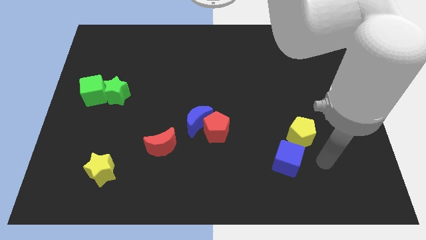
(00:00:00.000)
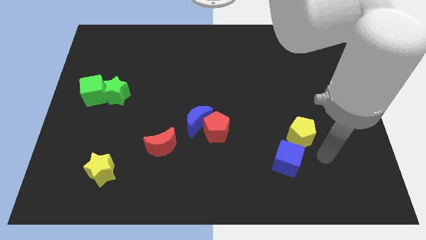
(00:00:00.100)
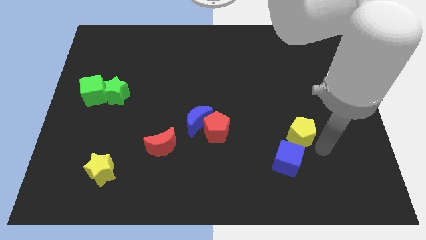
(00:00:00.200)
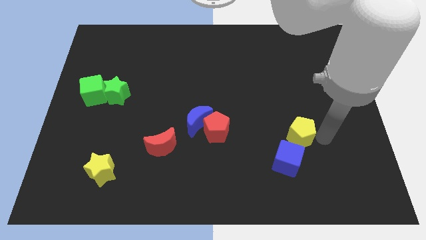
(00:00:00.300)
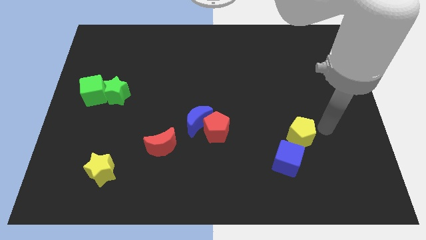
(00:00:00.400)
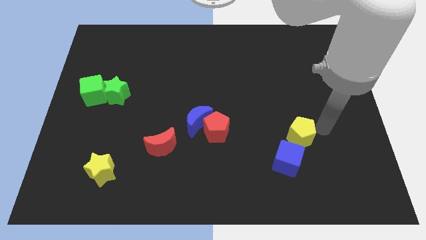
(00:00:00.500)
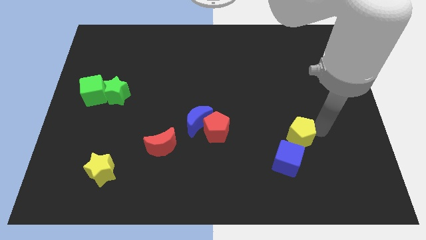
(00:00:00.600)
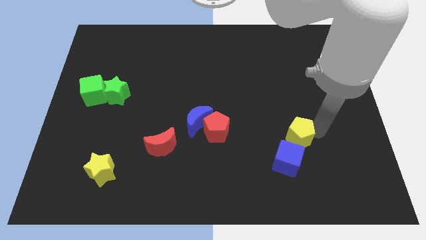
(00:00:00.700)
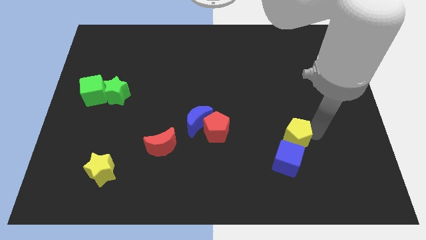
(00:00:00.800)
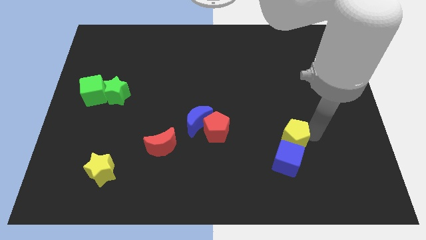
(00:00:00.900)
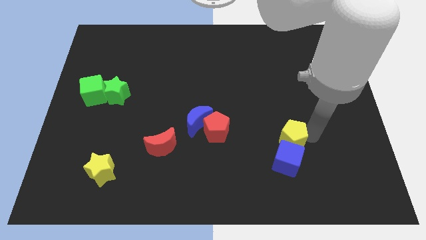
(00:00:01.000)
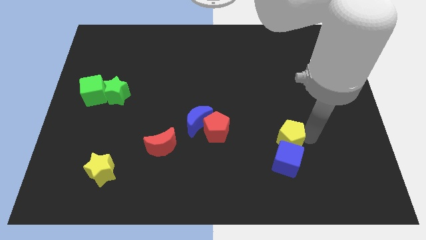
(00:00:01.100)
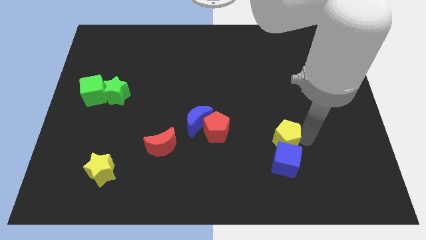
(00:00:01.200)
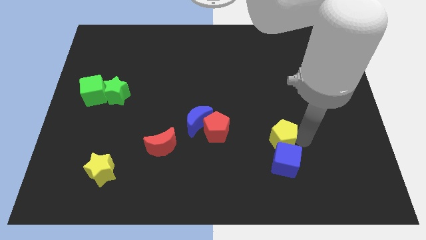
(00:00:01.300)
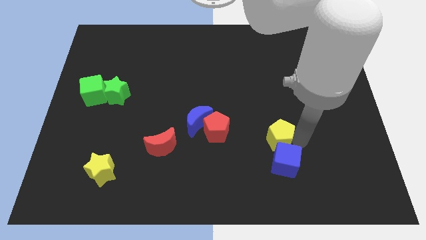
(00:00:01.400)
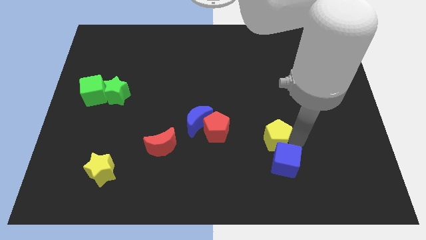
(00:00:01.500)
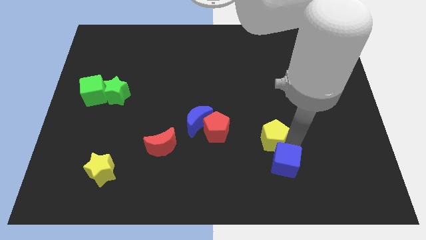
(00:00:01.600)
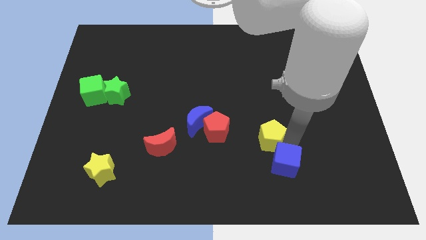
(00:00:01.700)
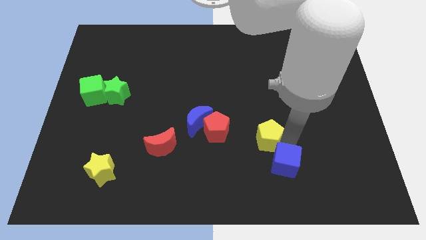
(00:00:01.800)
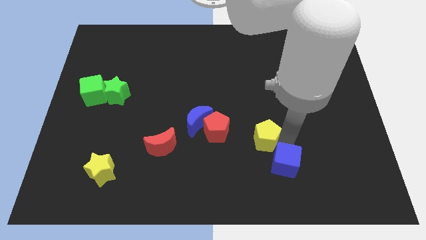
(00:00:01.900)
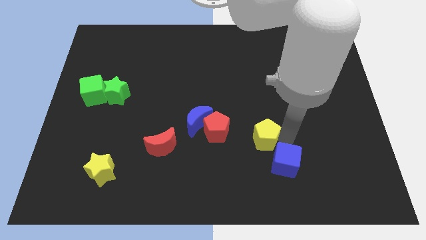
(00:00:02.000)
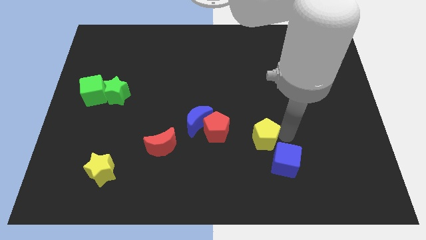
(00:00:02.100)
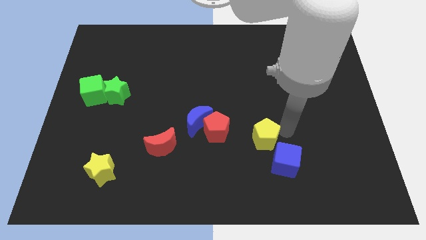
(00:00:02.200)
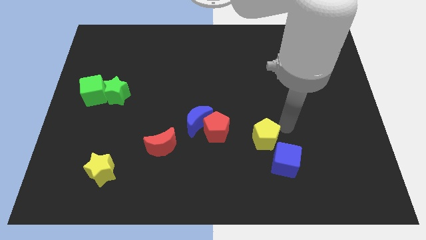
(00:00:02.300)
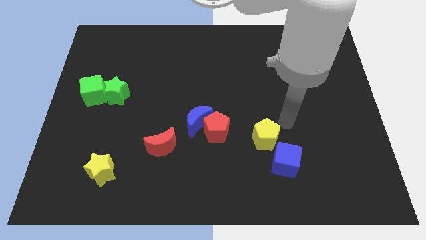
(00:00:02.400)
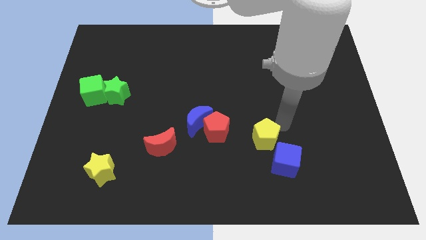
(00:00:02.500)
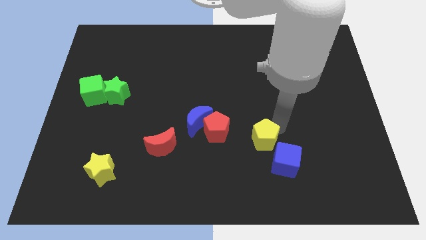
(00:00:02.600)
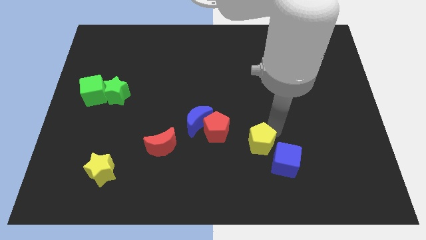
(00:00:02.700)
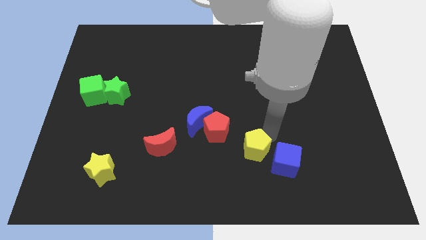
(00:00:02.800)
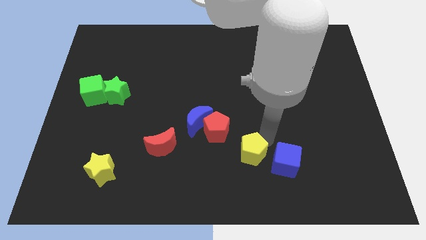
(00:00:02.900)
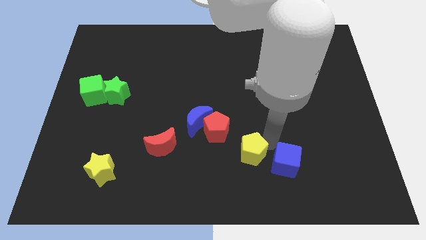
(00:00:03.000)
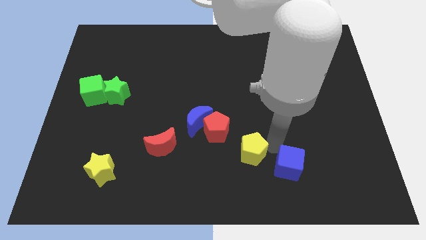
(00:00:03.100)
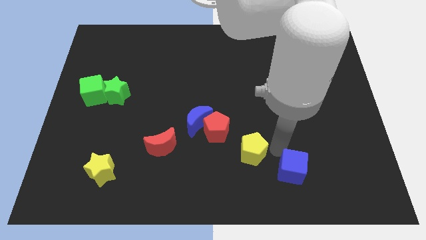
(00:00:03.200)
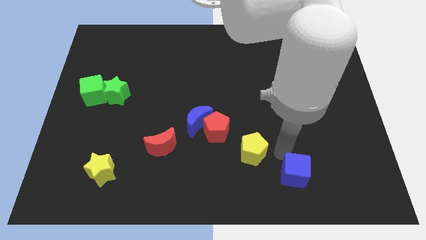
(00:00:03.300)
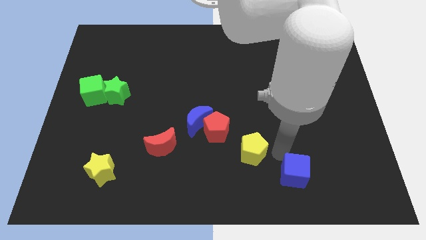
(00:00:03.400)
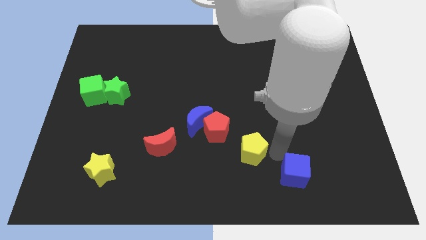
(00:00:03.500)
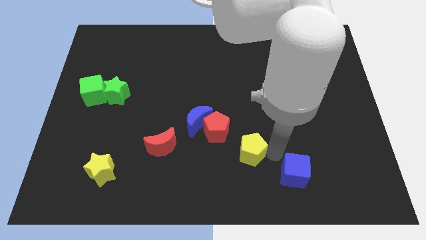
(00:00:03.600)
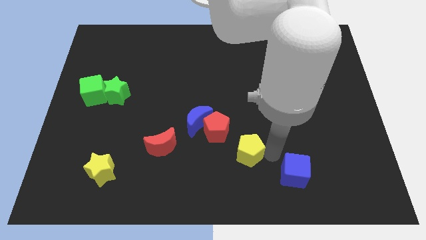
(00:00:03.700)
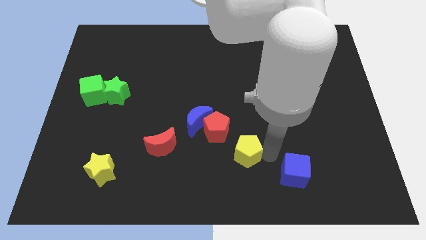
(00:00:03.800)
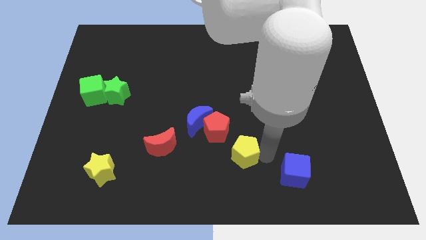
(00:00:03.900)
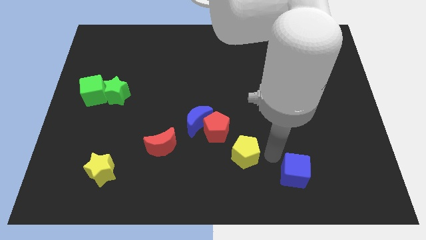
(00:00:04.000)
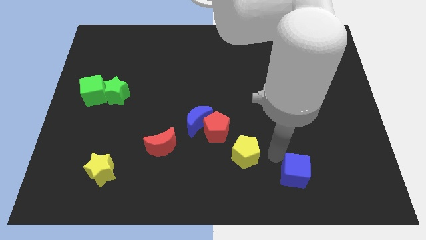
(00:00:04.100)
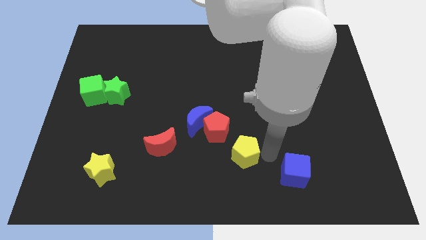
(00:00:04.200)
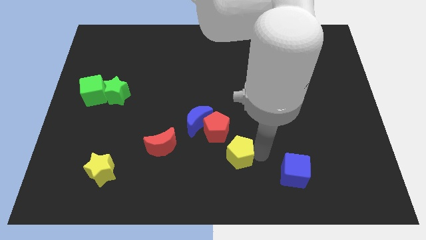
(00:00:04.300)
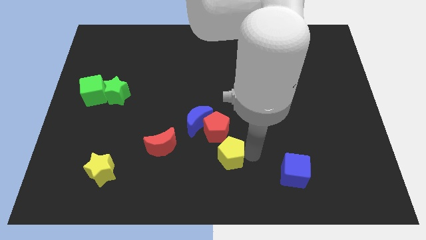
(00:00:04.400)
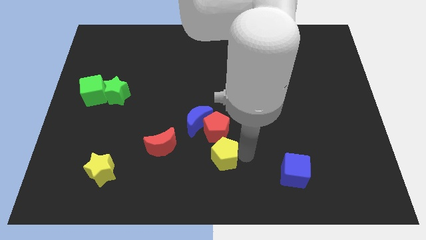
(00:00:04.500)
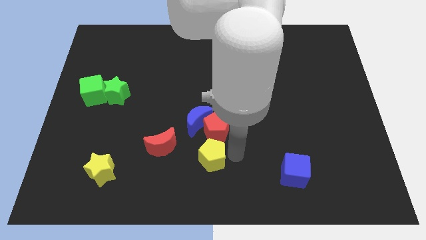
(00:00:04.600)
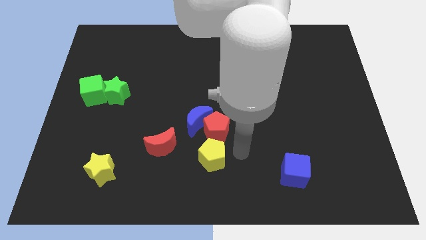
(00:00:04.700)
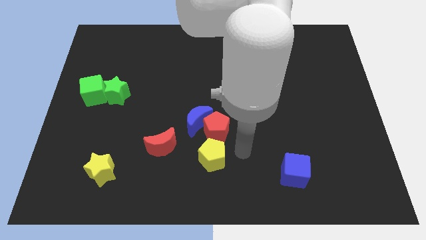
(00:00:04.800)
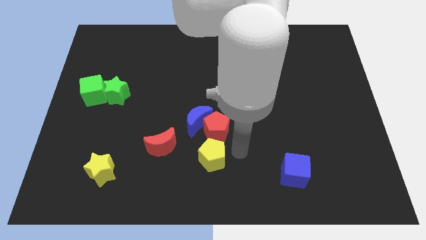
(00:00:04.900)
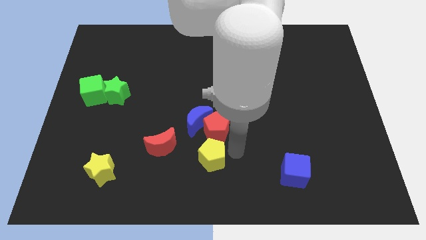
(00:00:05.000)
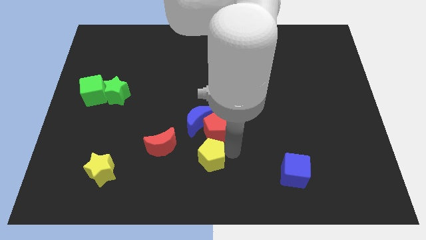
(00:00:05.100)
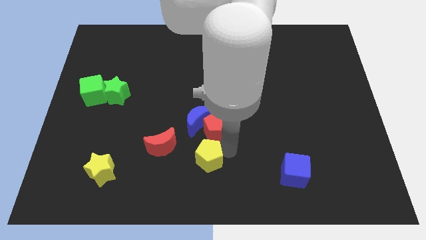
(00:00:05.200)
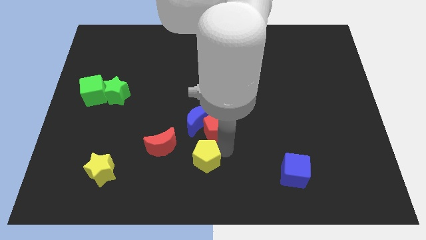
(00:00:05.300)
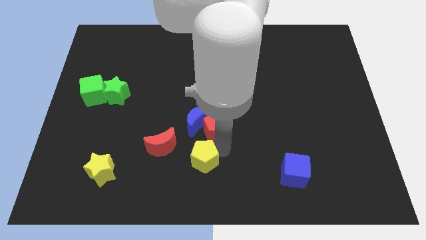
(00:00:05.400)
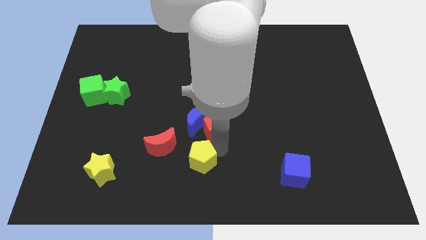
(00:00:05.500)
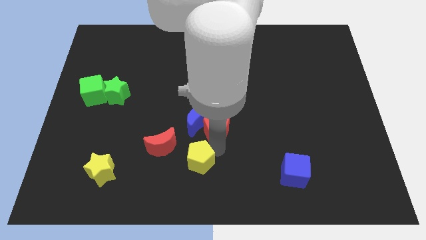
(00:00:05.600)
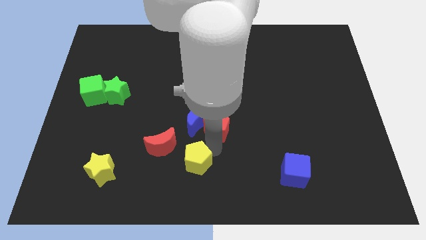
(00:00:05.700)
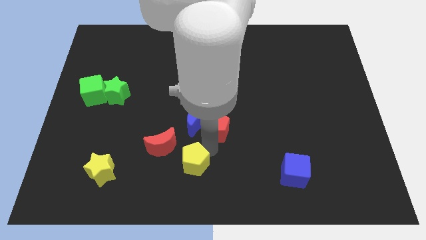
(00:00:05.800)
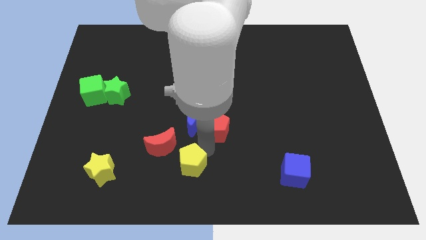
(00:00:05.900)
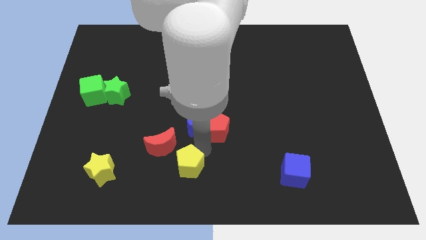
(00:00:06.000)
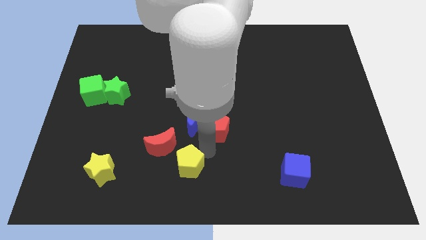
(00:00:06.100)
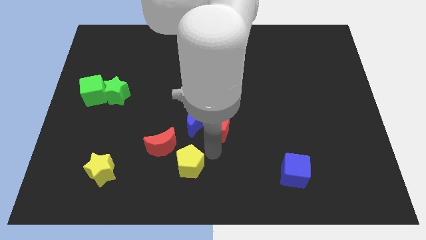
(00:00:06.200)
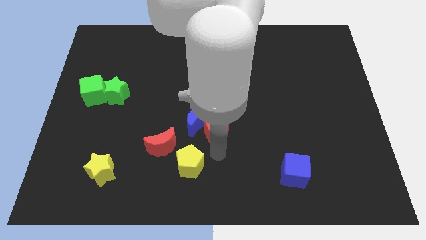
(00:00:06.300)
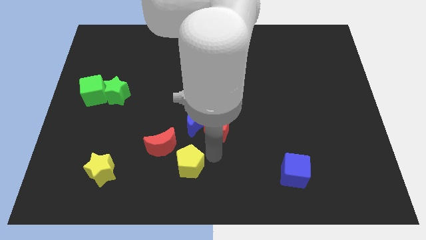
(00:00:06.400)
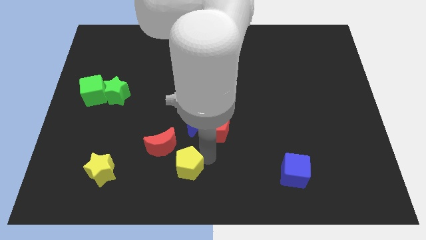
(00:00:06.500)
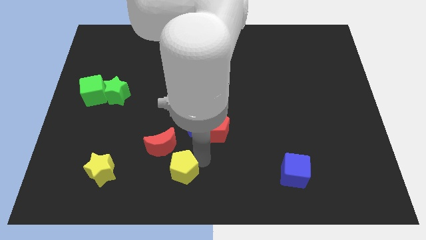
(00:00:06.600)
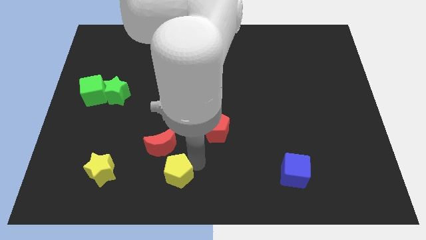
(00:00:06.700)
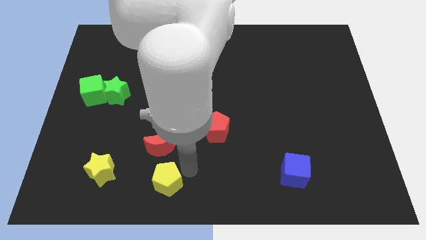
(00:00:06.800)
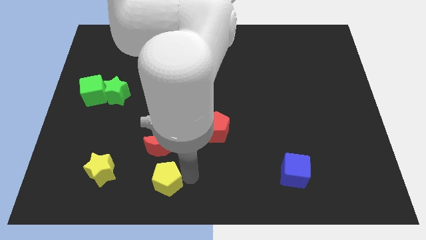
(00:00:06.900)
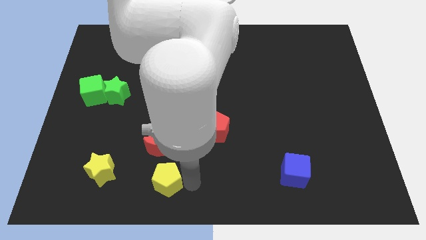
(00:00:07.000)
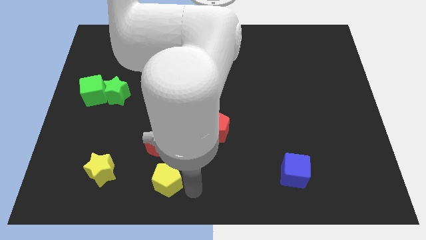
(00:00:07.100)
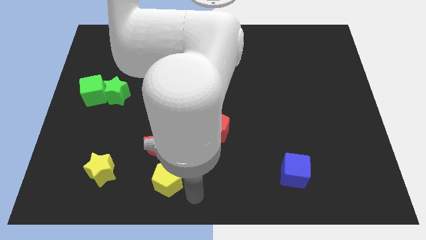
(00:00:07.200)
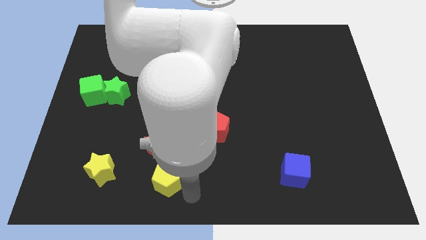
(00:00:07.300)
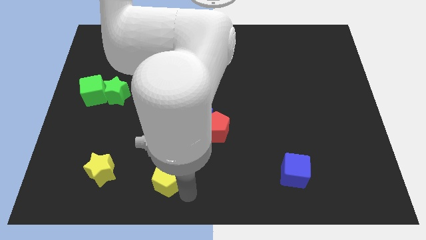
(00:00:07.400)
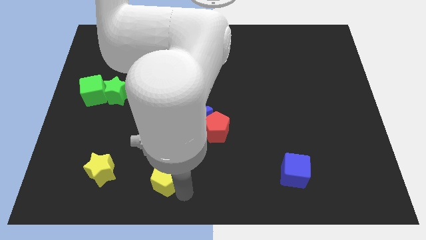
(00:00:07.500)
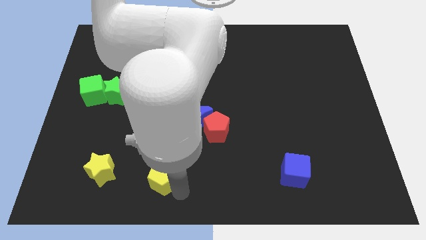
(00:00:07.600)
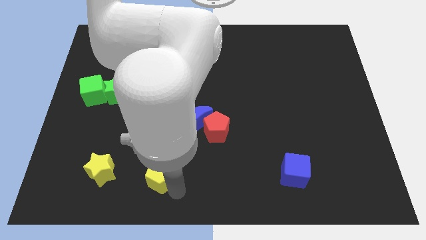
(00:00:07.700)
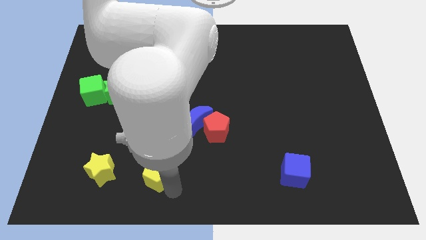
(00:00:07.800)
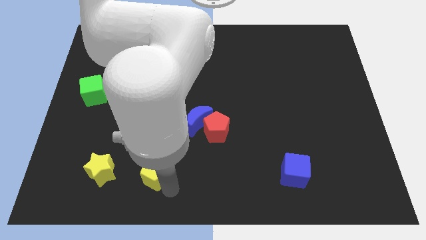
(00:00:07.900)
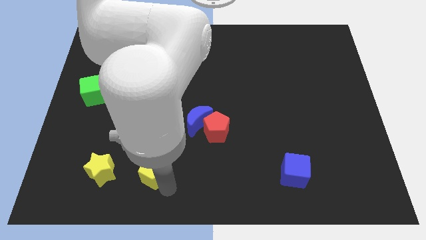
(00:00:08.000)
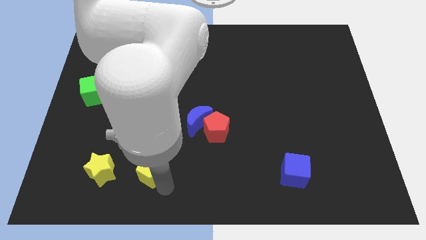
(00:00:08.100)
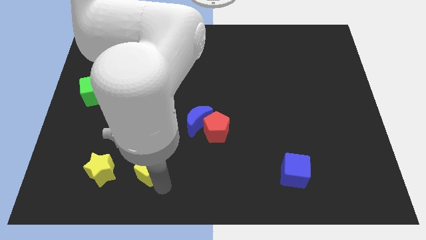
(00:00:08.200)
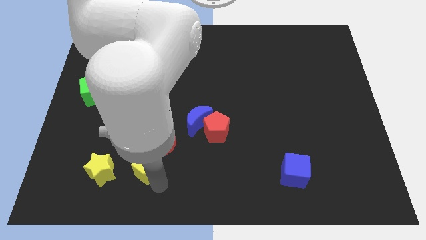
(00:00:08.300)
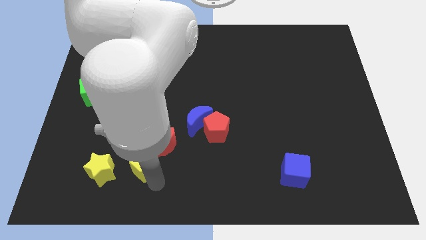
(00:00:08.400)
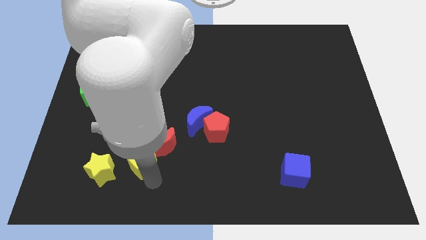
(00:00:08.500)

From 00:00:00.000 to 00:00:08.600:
push the yellow pentagon to the top right of the yellow star
